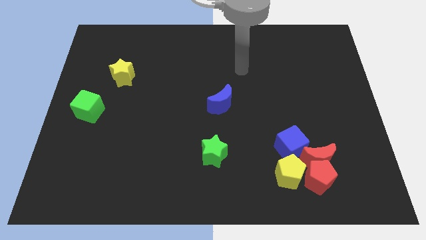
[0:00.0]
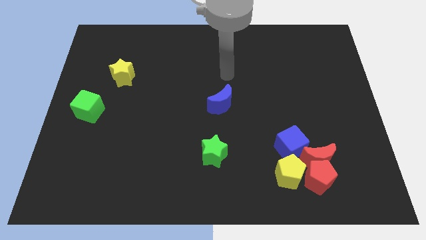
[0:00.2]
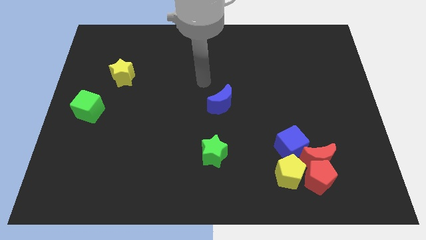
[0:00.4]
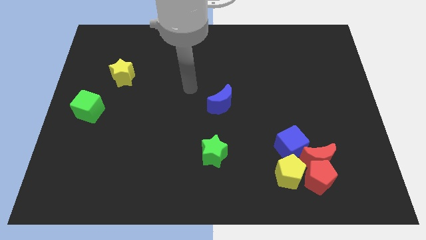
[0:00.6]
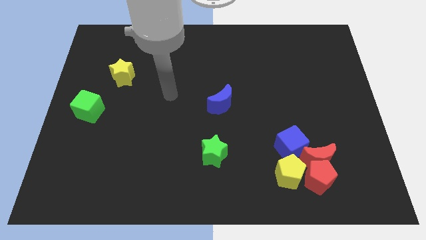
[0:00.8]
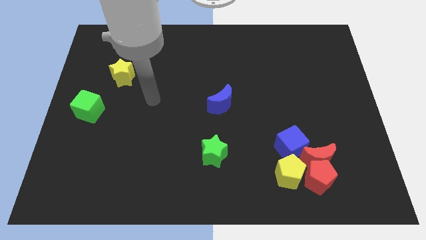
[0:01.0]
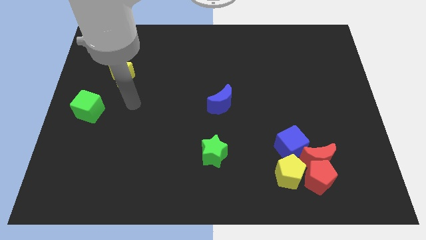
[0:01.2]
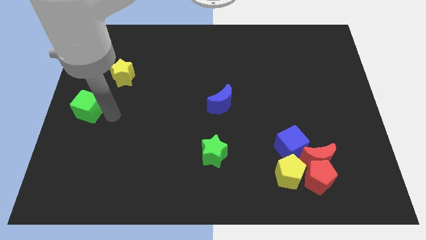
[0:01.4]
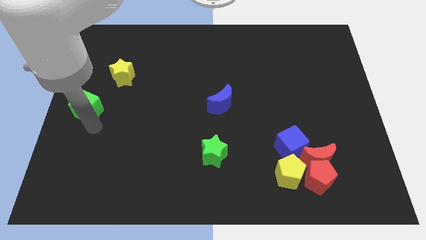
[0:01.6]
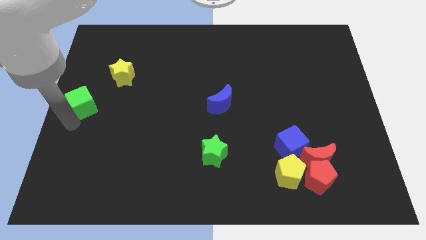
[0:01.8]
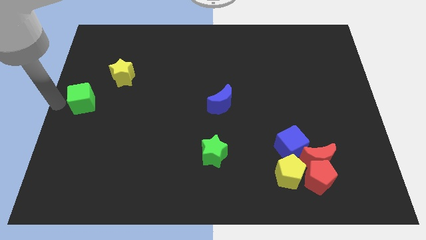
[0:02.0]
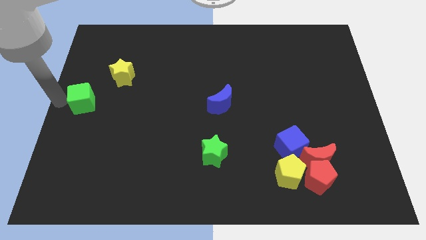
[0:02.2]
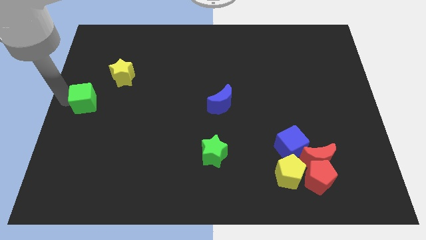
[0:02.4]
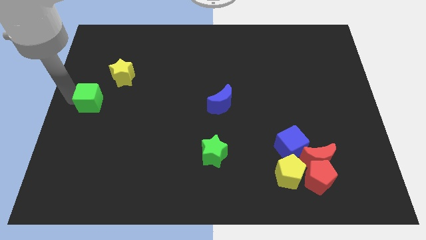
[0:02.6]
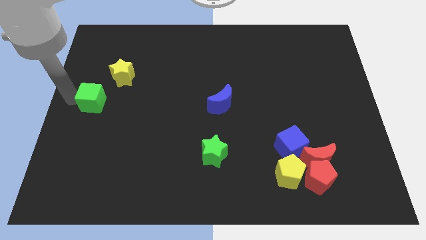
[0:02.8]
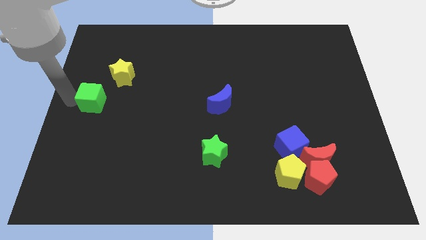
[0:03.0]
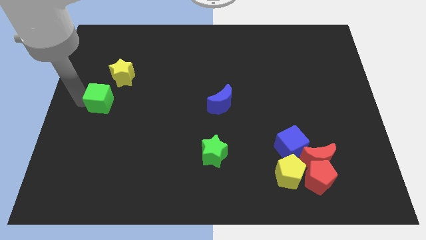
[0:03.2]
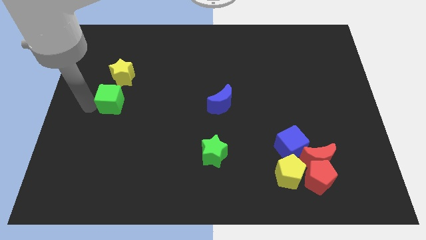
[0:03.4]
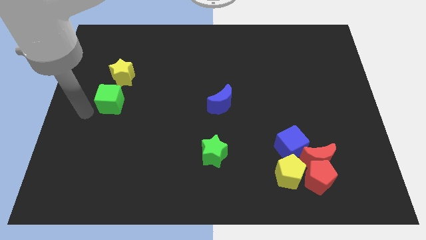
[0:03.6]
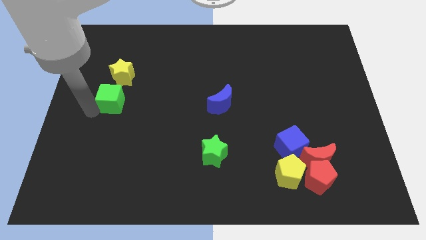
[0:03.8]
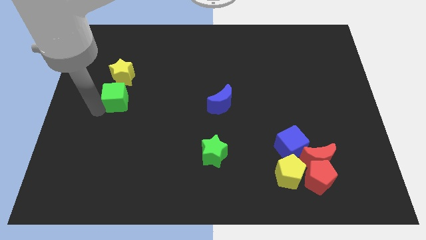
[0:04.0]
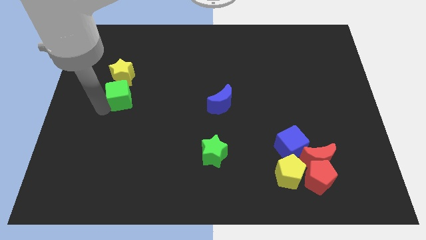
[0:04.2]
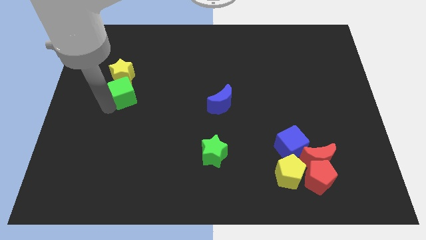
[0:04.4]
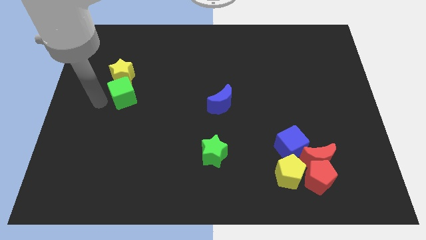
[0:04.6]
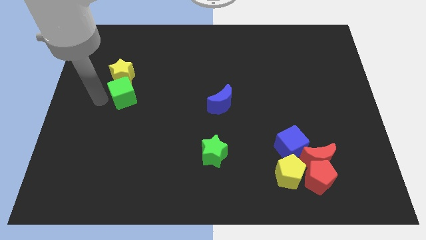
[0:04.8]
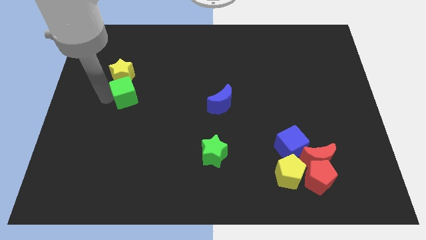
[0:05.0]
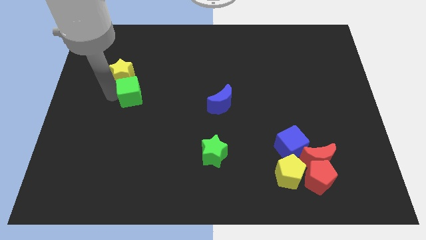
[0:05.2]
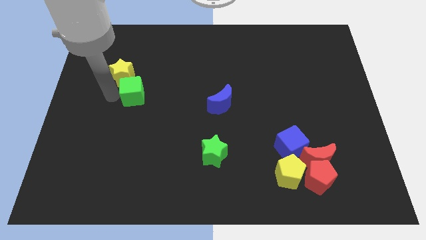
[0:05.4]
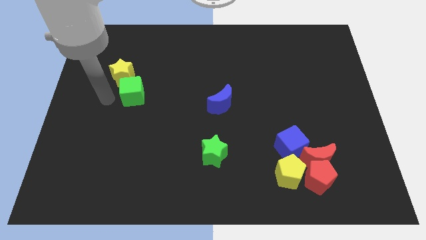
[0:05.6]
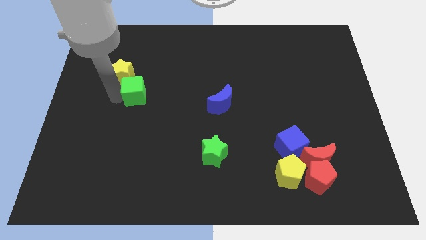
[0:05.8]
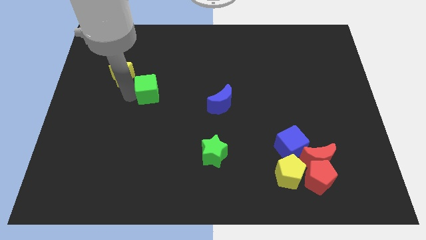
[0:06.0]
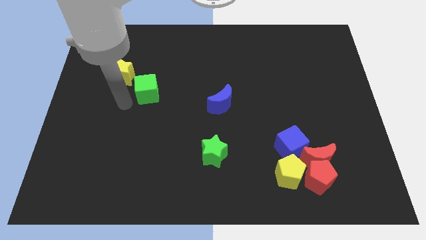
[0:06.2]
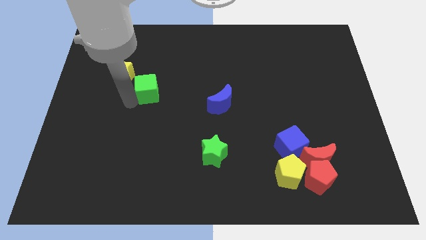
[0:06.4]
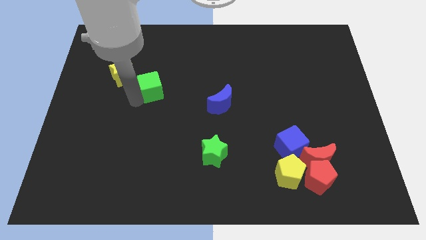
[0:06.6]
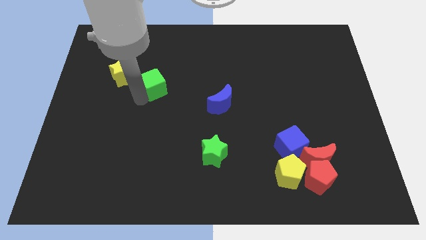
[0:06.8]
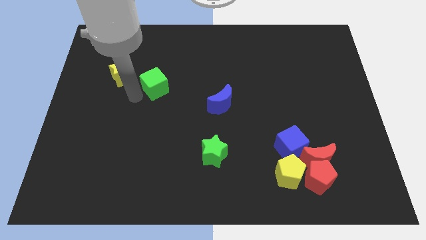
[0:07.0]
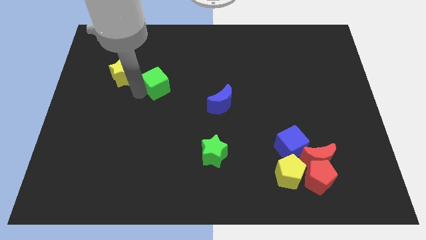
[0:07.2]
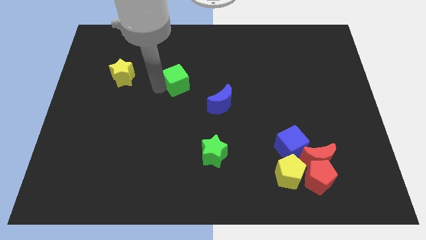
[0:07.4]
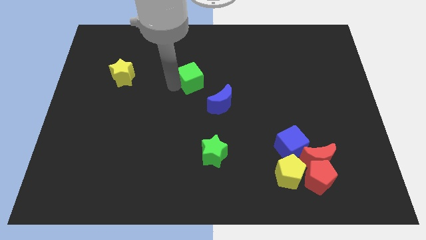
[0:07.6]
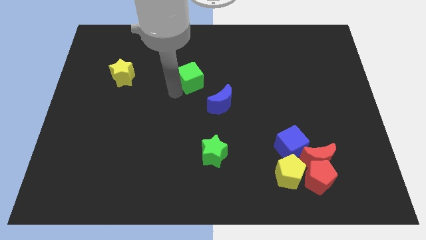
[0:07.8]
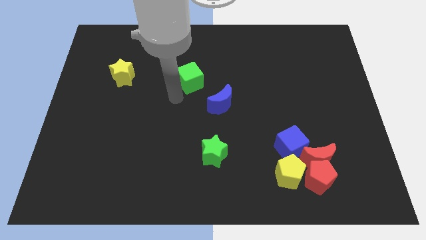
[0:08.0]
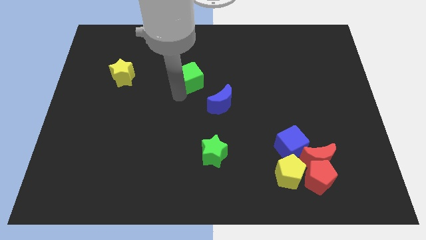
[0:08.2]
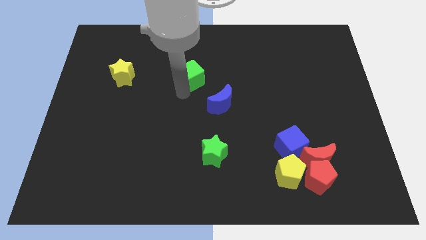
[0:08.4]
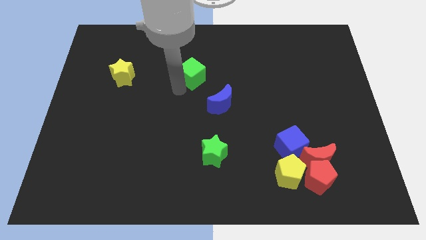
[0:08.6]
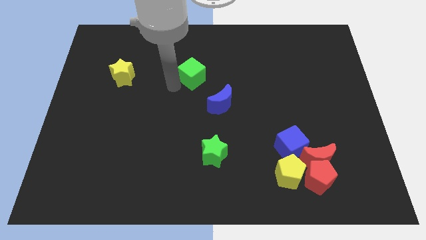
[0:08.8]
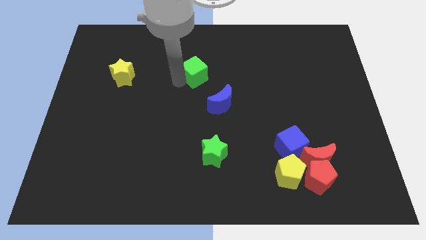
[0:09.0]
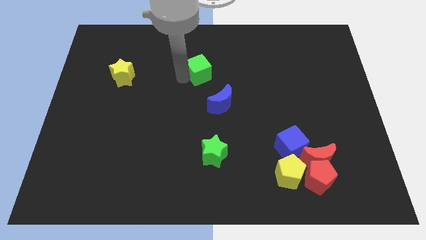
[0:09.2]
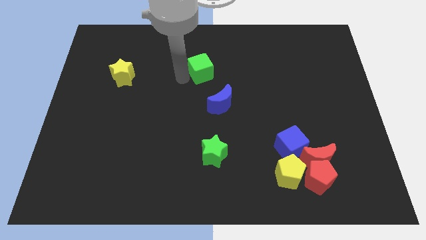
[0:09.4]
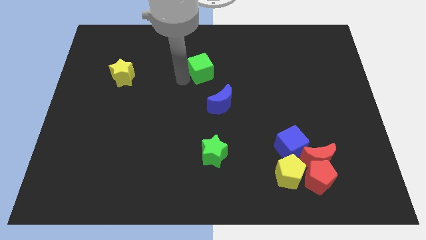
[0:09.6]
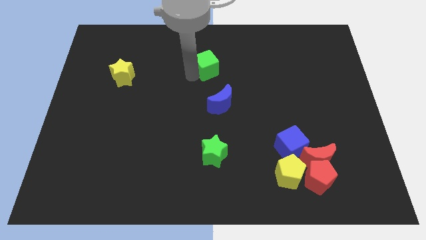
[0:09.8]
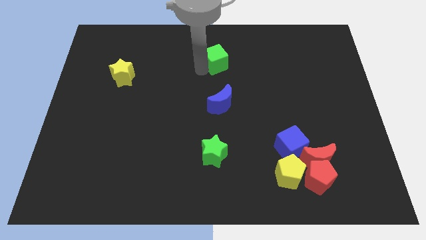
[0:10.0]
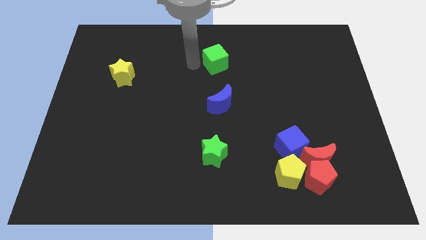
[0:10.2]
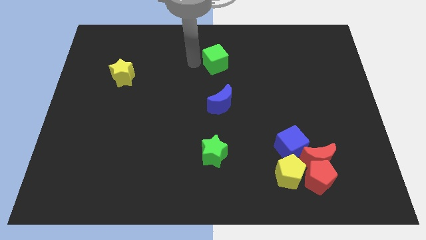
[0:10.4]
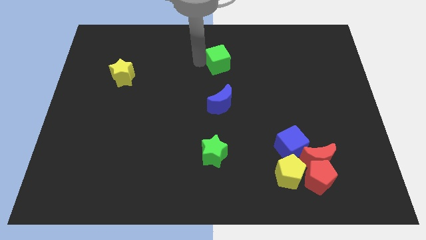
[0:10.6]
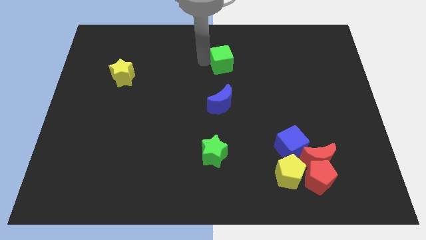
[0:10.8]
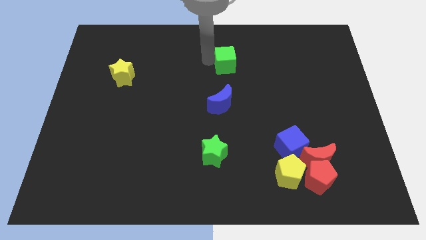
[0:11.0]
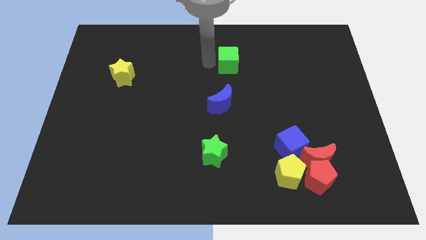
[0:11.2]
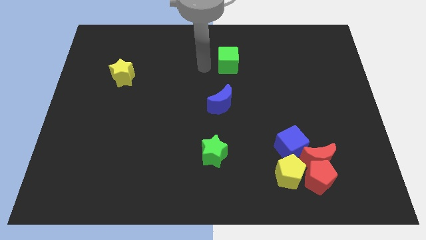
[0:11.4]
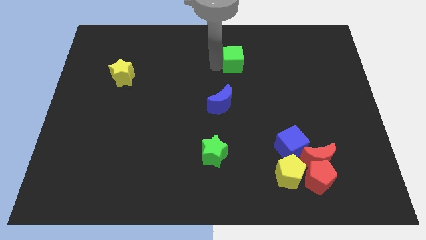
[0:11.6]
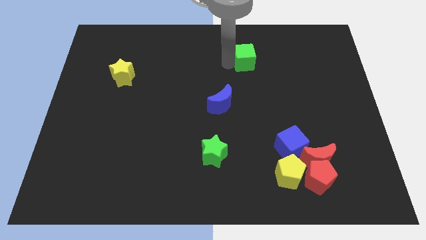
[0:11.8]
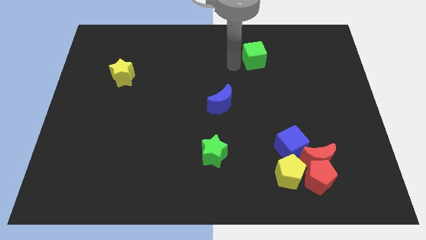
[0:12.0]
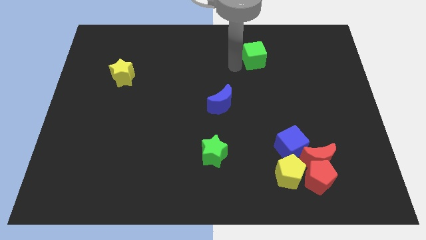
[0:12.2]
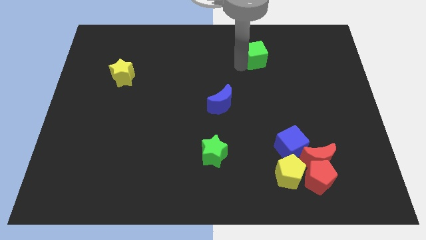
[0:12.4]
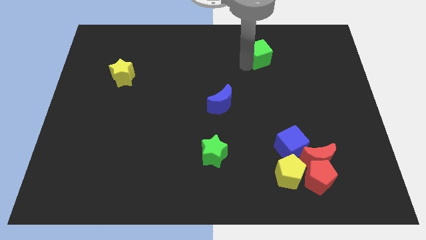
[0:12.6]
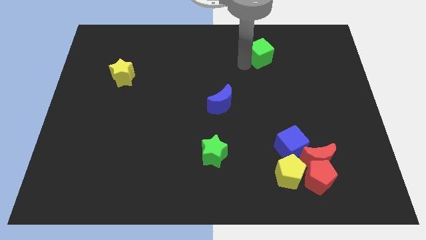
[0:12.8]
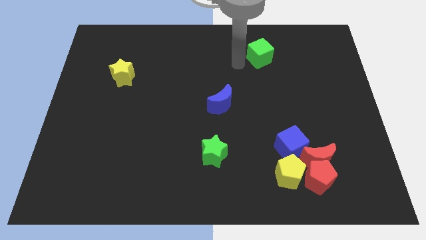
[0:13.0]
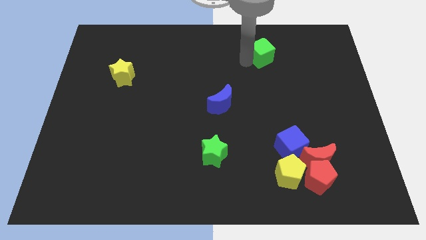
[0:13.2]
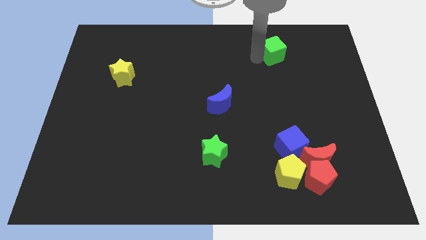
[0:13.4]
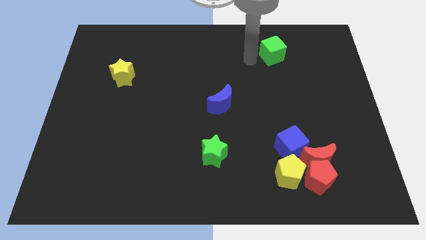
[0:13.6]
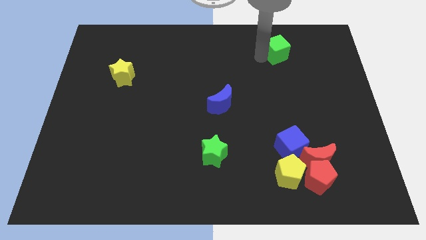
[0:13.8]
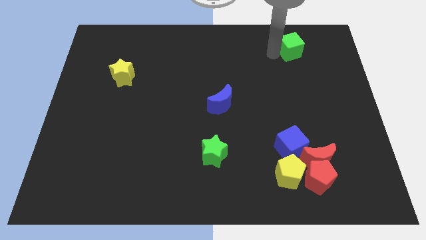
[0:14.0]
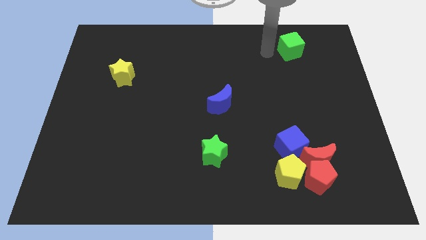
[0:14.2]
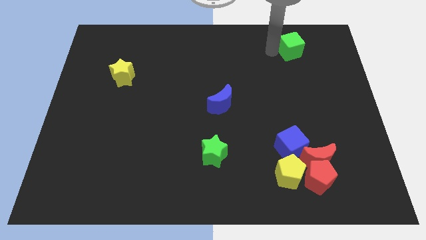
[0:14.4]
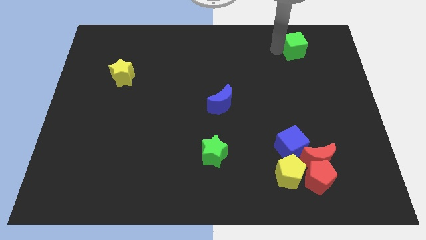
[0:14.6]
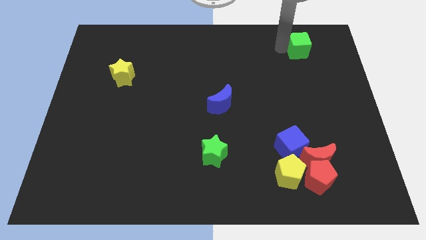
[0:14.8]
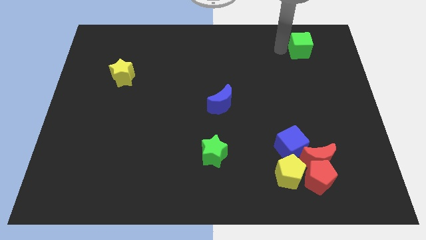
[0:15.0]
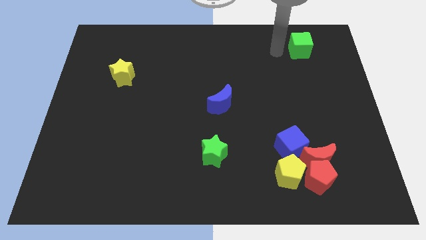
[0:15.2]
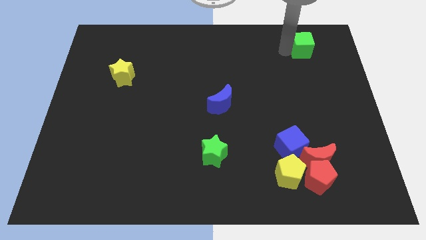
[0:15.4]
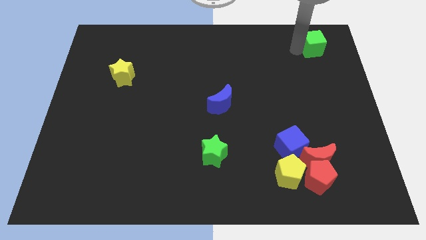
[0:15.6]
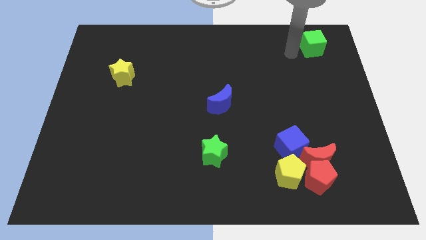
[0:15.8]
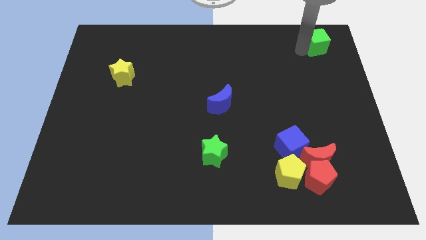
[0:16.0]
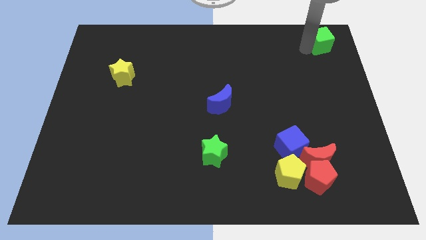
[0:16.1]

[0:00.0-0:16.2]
put the green cube to the top right corner
